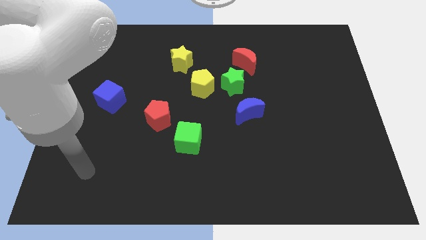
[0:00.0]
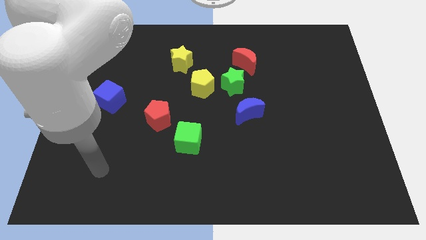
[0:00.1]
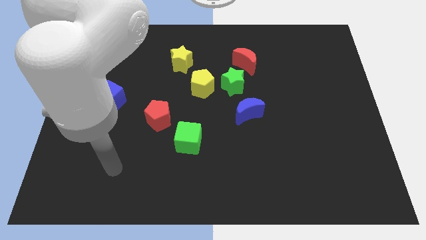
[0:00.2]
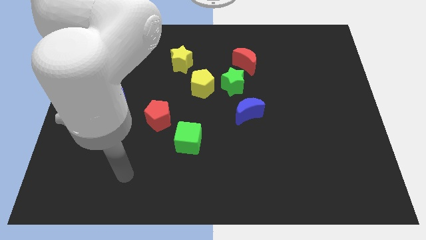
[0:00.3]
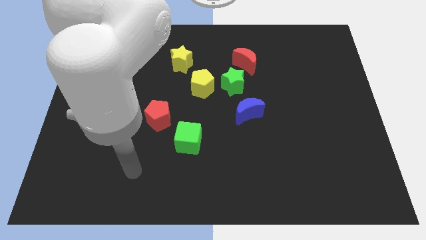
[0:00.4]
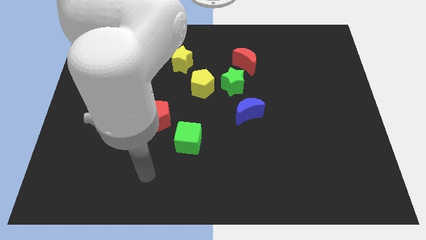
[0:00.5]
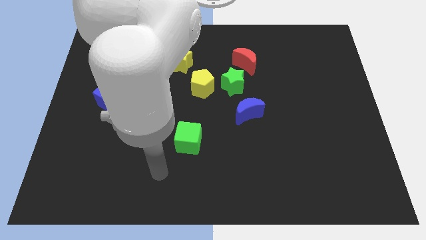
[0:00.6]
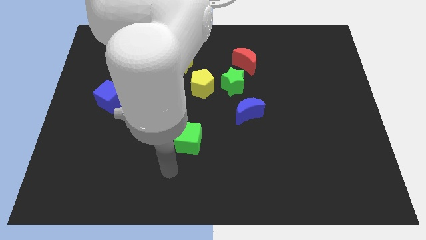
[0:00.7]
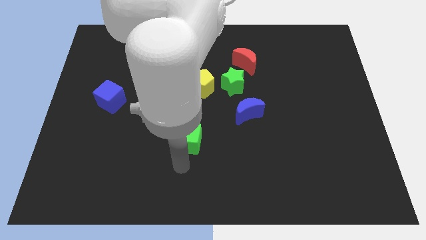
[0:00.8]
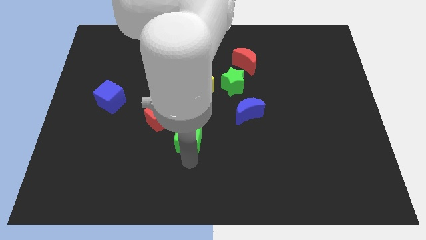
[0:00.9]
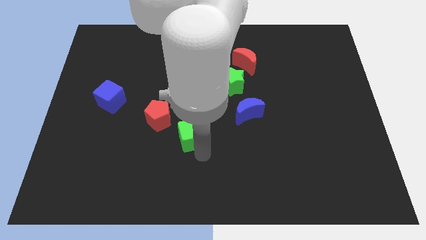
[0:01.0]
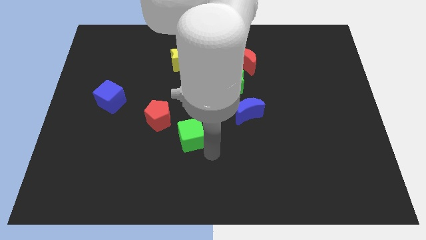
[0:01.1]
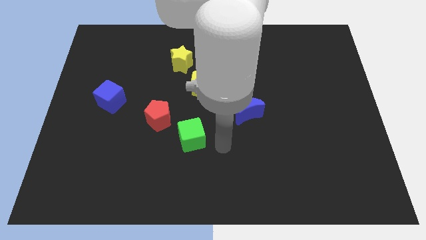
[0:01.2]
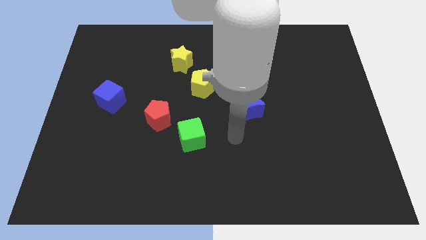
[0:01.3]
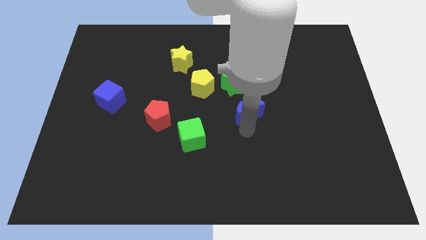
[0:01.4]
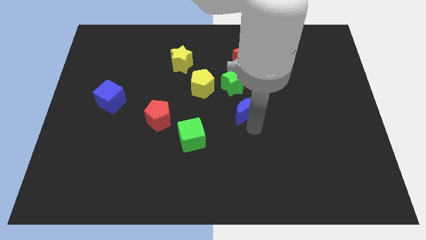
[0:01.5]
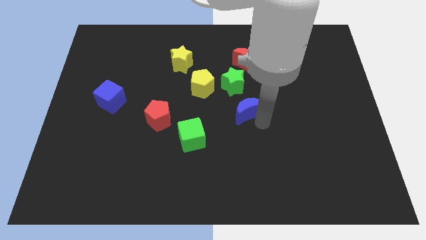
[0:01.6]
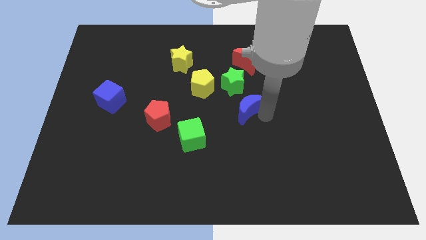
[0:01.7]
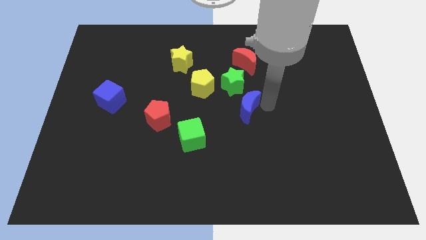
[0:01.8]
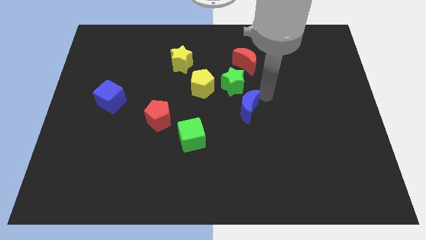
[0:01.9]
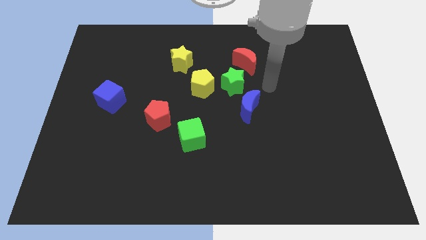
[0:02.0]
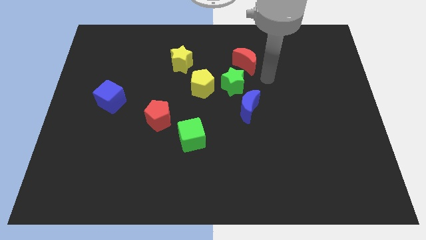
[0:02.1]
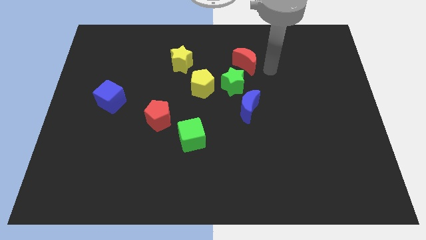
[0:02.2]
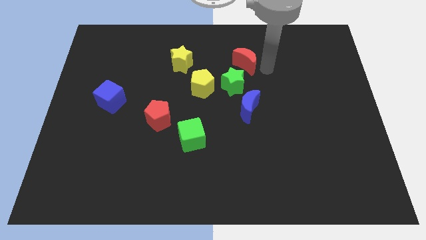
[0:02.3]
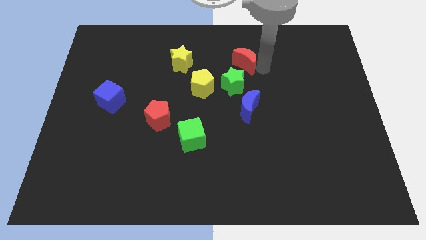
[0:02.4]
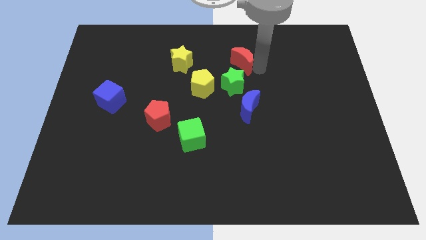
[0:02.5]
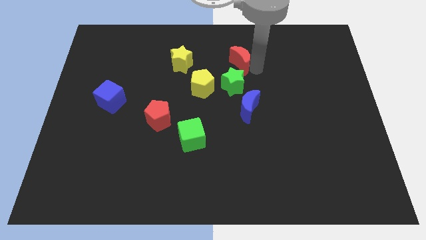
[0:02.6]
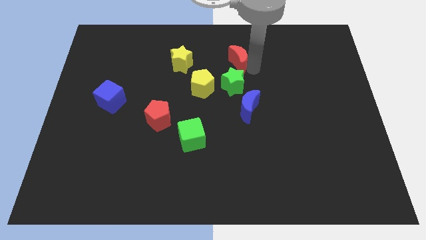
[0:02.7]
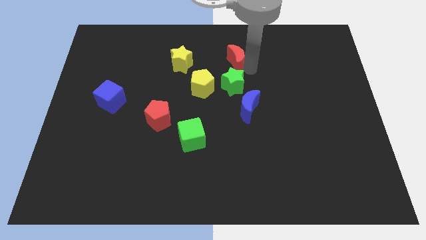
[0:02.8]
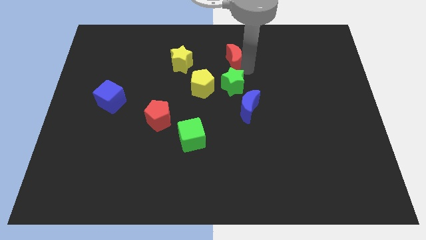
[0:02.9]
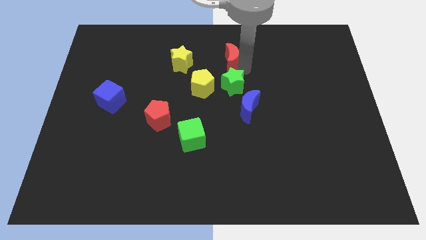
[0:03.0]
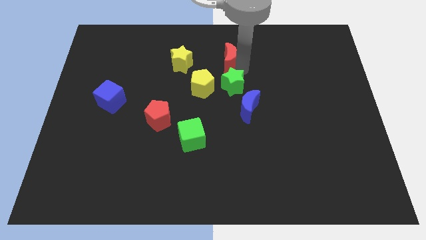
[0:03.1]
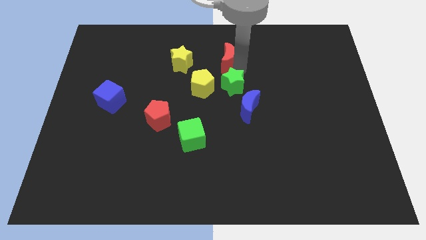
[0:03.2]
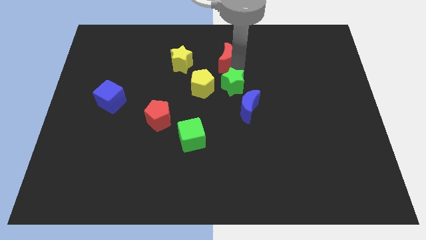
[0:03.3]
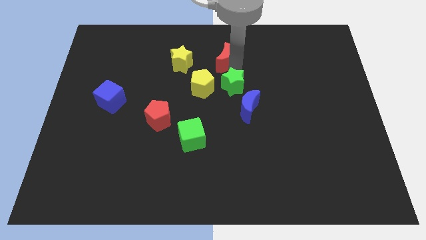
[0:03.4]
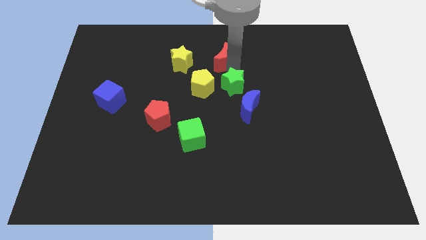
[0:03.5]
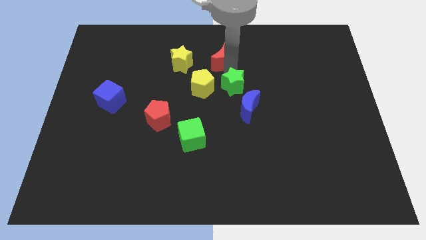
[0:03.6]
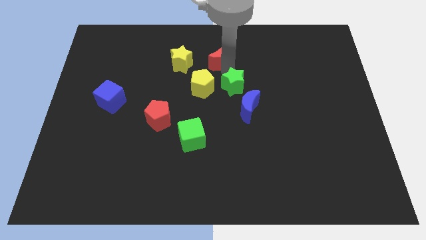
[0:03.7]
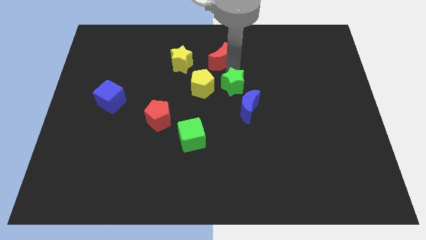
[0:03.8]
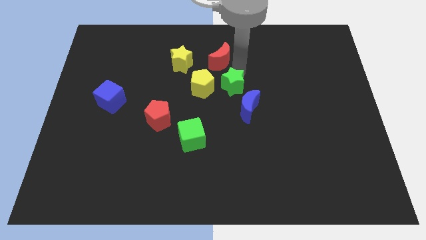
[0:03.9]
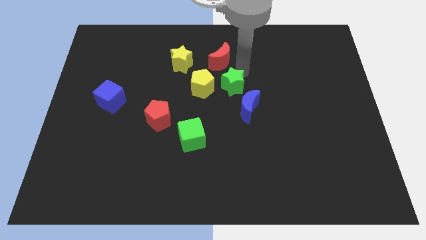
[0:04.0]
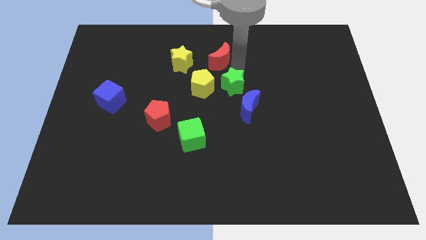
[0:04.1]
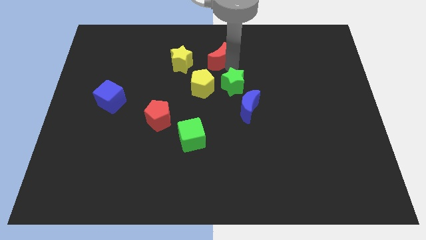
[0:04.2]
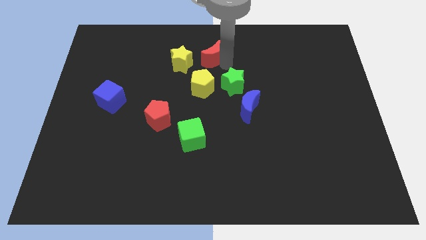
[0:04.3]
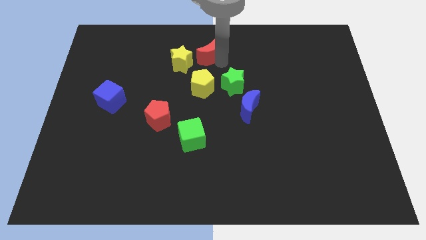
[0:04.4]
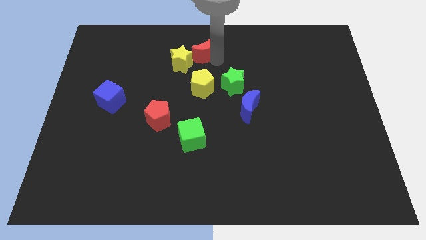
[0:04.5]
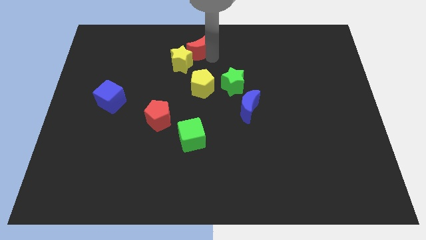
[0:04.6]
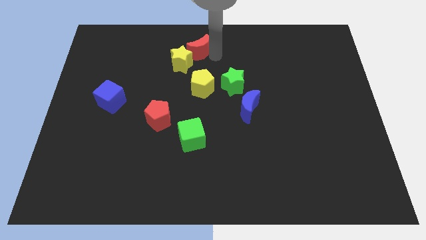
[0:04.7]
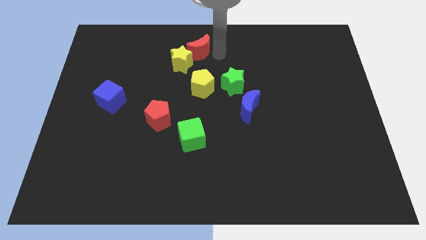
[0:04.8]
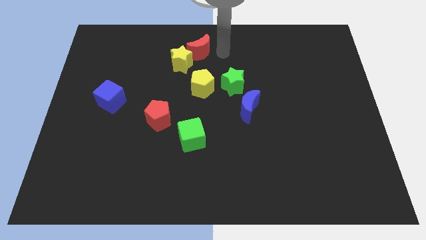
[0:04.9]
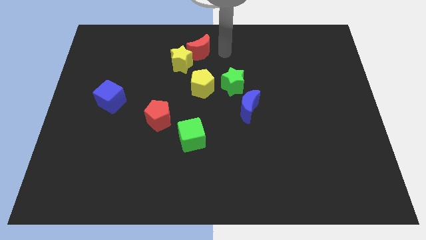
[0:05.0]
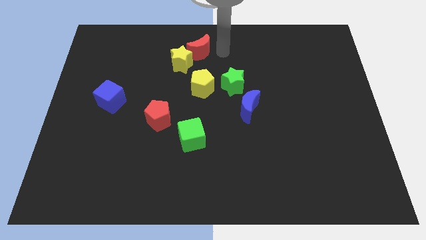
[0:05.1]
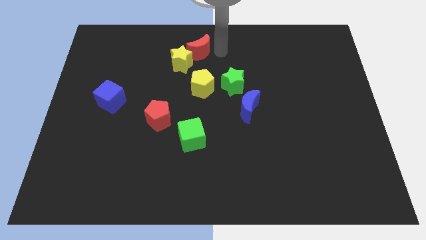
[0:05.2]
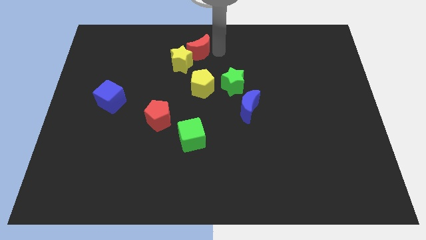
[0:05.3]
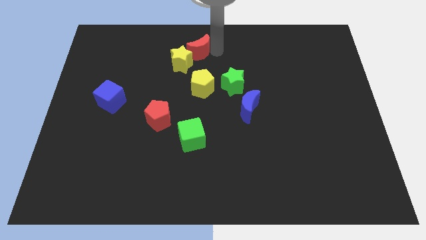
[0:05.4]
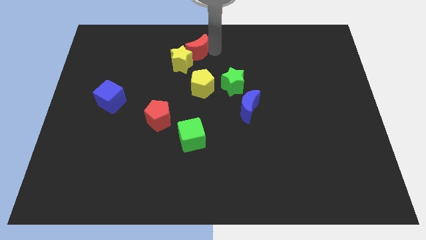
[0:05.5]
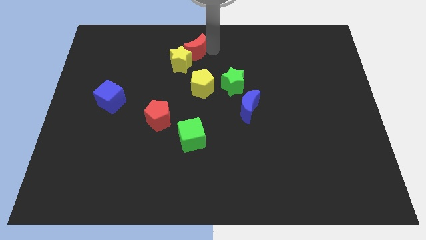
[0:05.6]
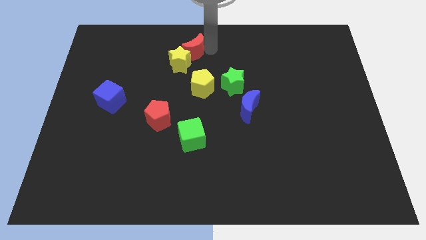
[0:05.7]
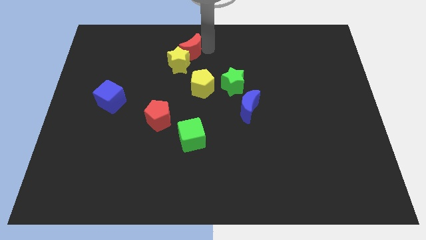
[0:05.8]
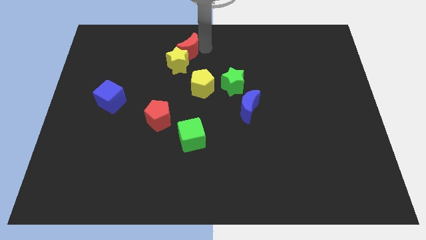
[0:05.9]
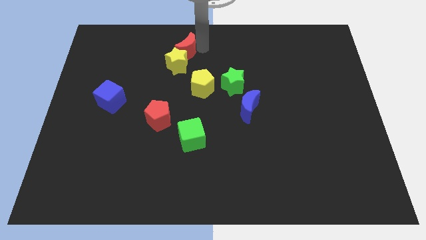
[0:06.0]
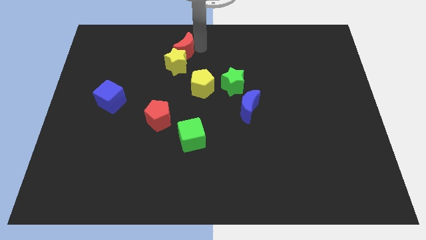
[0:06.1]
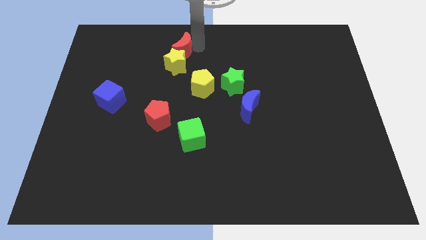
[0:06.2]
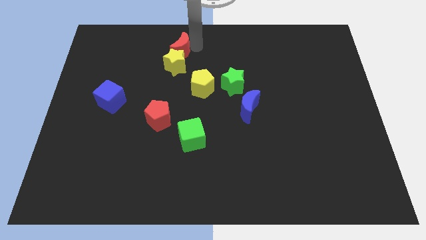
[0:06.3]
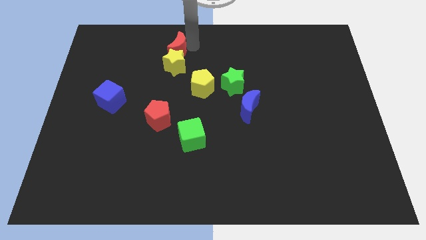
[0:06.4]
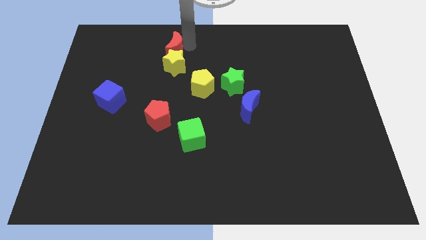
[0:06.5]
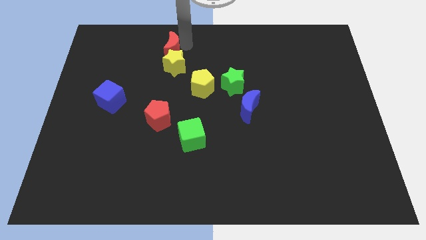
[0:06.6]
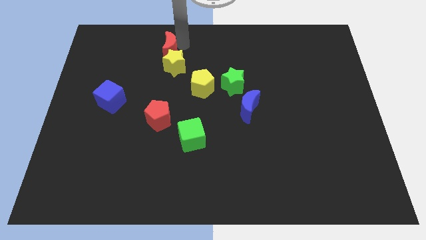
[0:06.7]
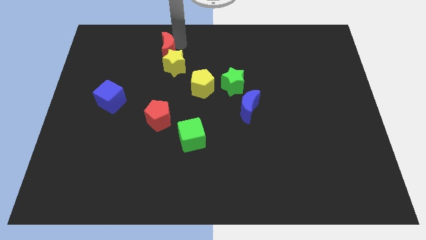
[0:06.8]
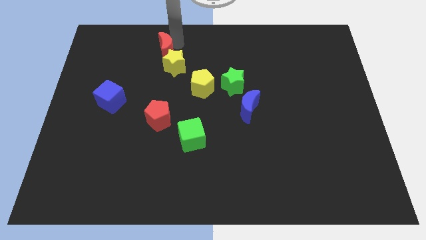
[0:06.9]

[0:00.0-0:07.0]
move the red moon to the left

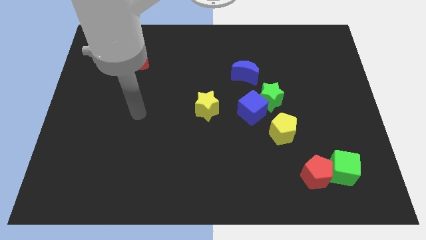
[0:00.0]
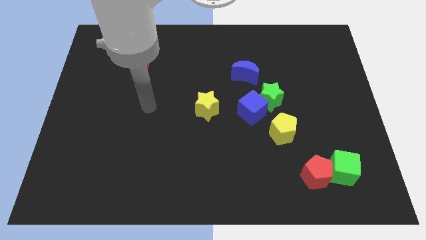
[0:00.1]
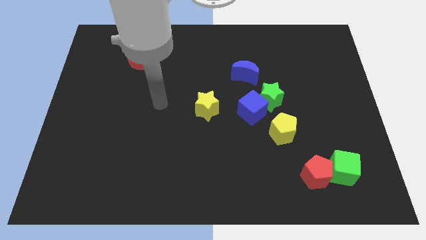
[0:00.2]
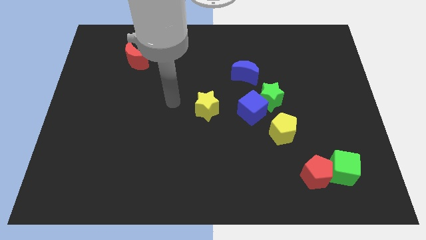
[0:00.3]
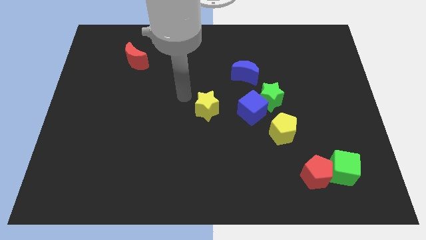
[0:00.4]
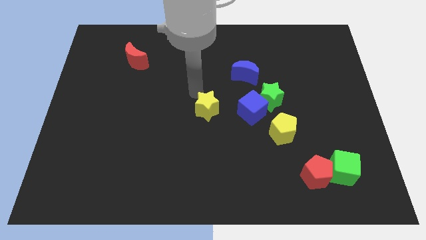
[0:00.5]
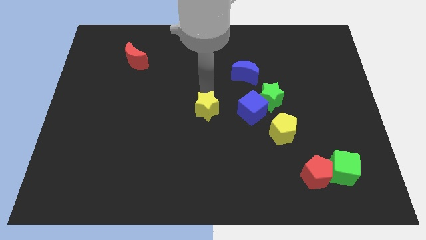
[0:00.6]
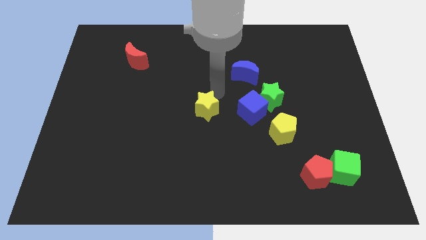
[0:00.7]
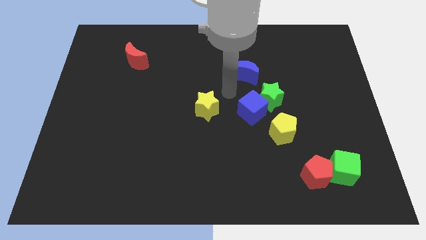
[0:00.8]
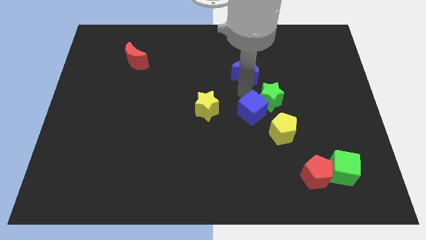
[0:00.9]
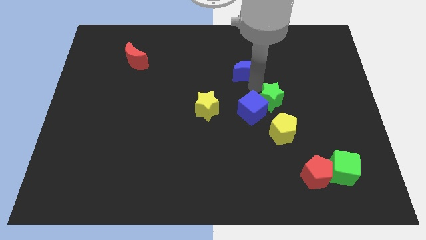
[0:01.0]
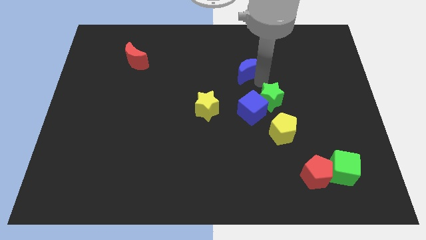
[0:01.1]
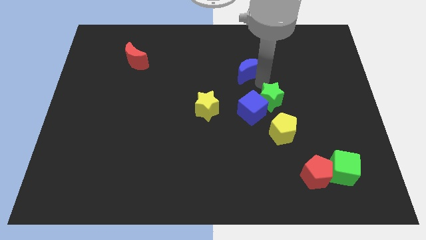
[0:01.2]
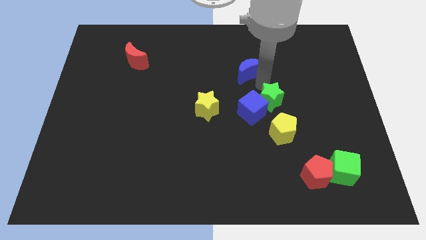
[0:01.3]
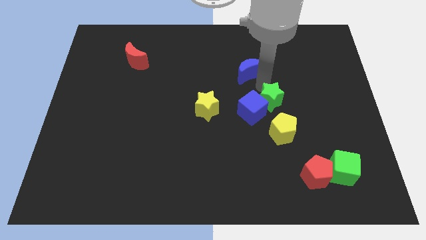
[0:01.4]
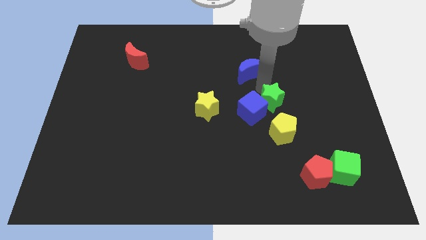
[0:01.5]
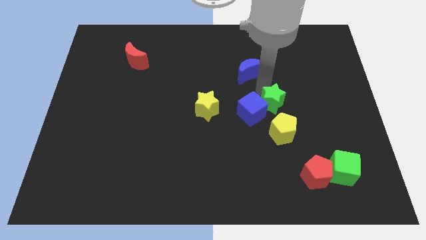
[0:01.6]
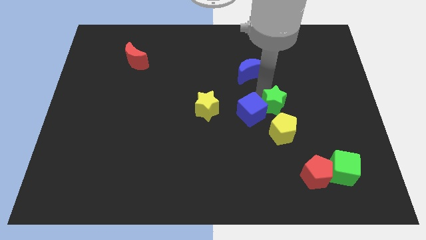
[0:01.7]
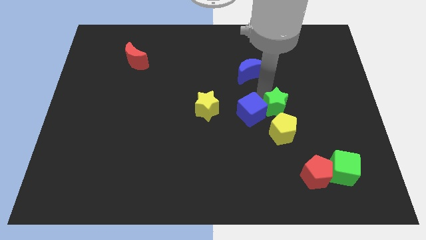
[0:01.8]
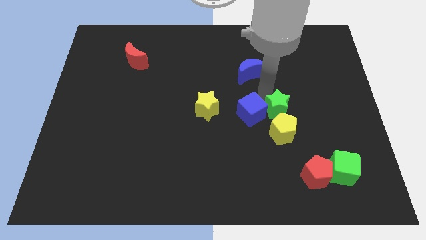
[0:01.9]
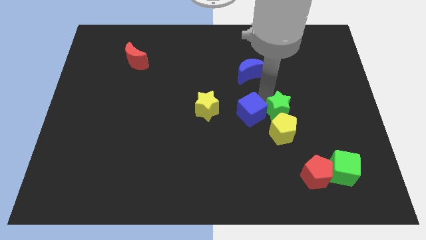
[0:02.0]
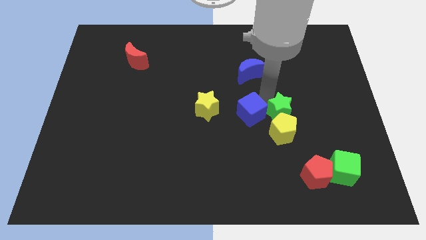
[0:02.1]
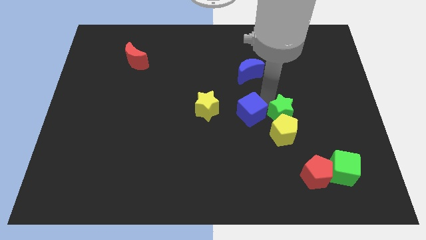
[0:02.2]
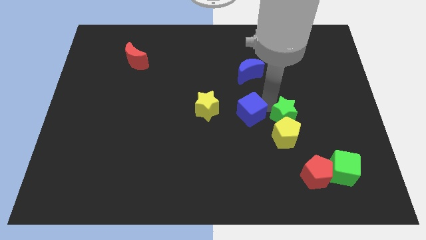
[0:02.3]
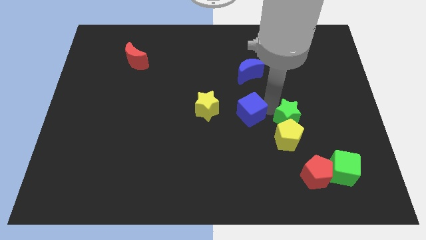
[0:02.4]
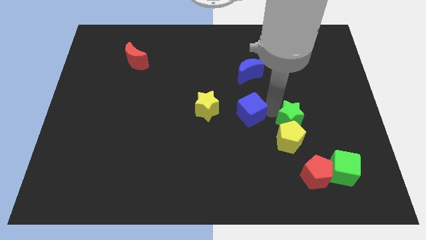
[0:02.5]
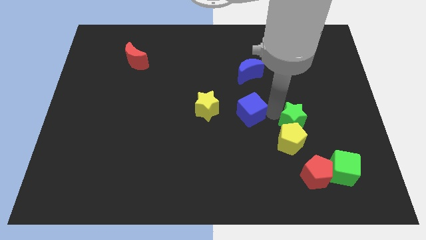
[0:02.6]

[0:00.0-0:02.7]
move the green star downwards and then right a bit
